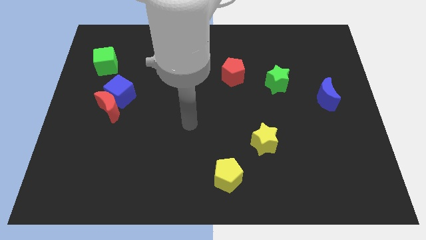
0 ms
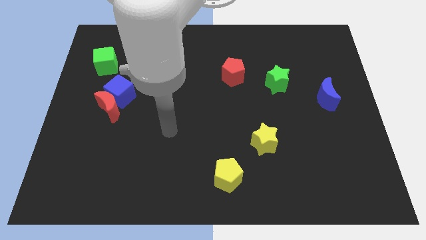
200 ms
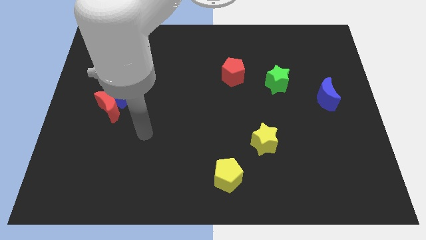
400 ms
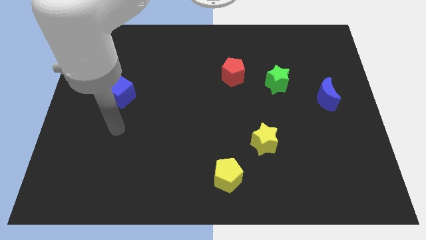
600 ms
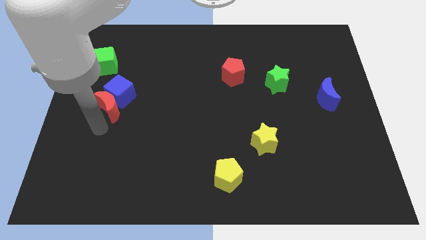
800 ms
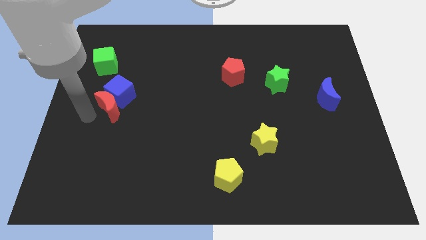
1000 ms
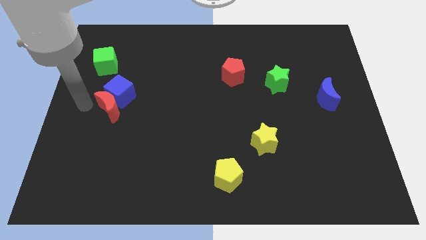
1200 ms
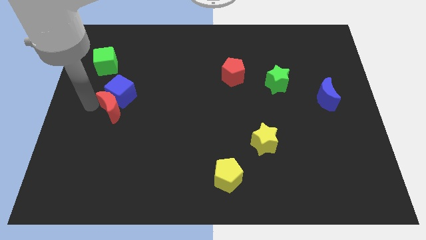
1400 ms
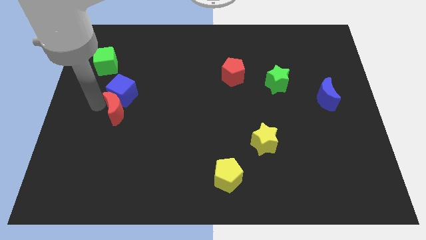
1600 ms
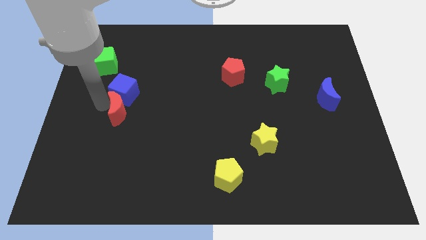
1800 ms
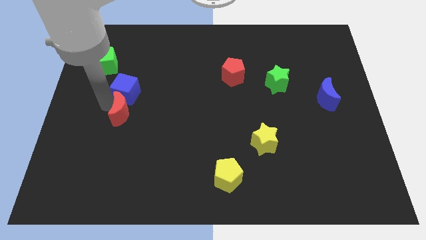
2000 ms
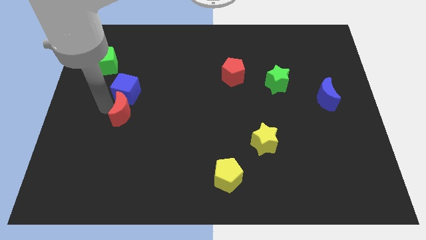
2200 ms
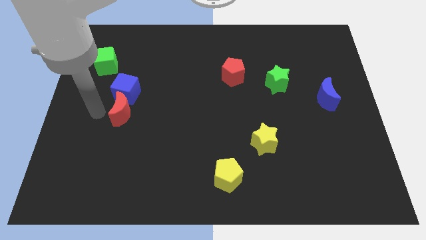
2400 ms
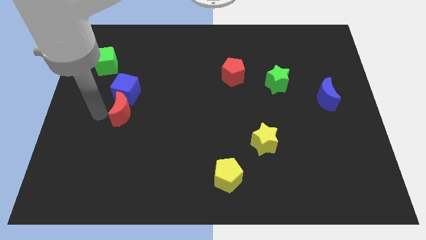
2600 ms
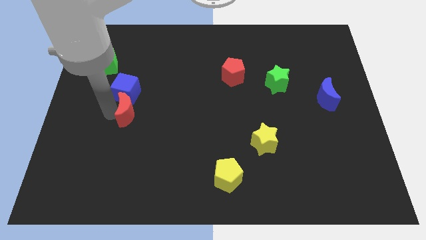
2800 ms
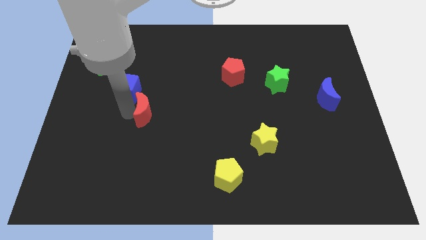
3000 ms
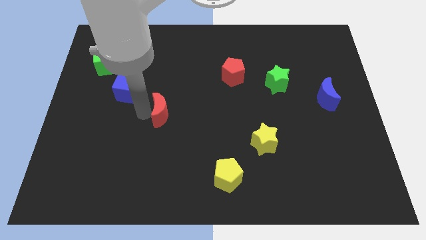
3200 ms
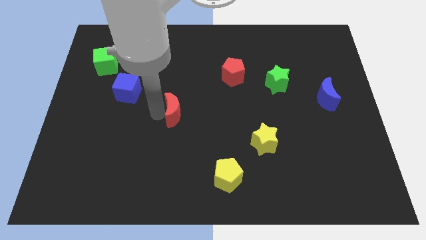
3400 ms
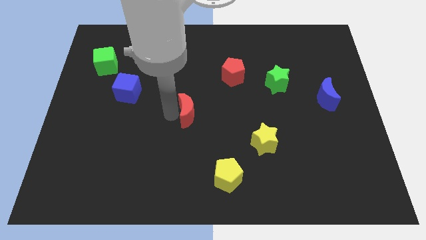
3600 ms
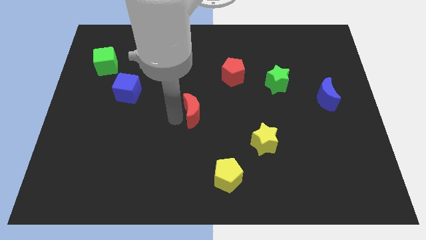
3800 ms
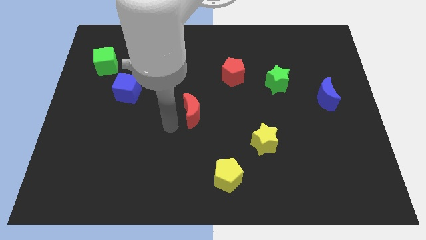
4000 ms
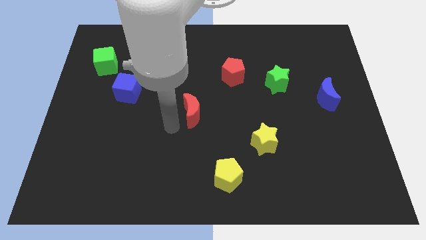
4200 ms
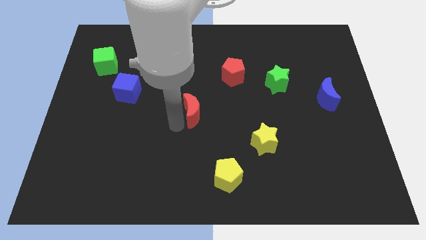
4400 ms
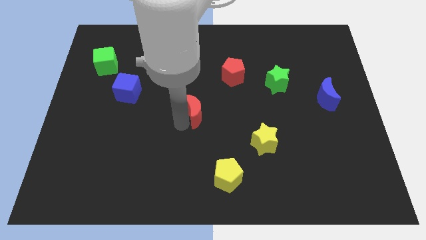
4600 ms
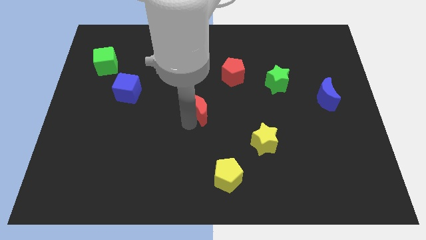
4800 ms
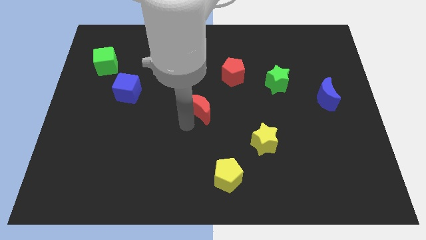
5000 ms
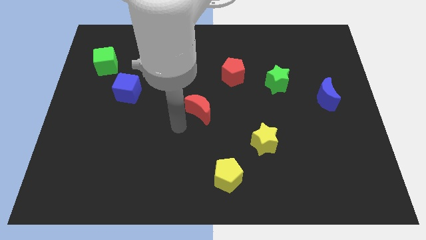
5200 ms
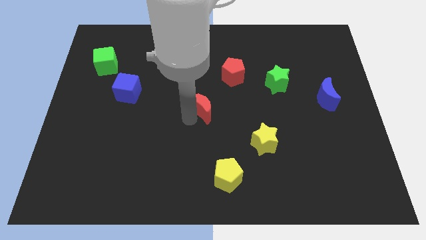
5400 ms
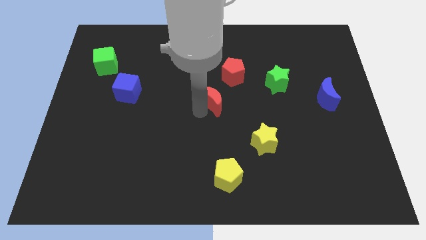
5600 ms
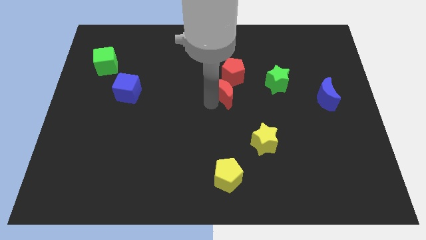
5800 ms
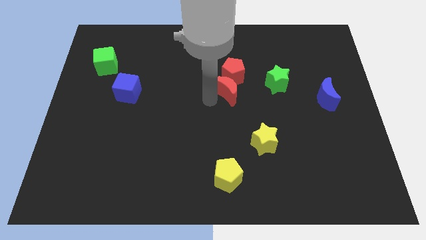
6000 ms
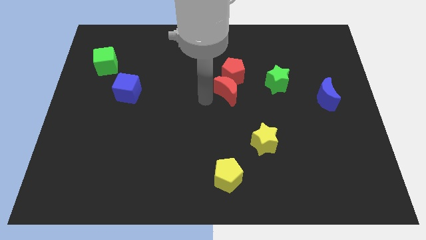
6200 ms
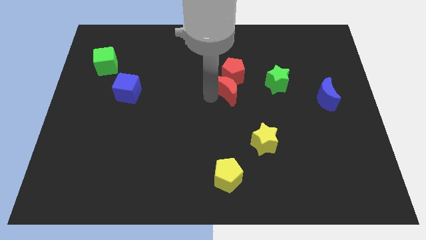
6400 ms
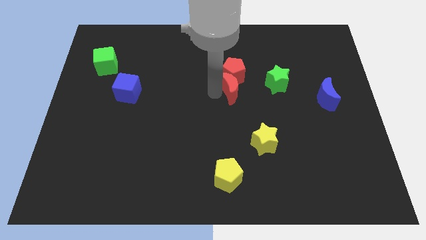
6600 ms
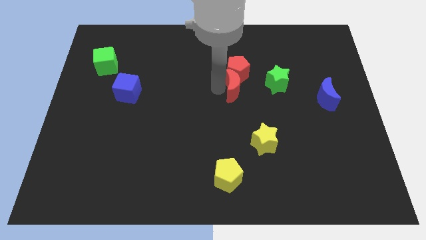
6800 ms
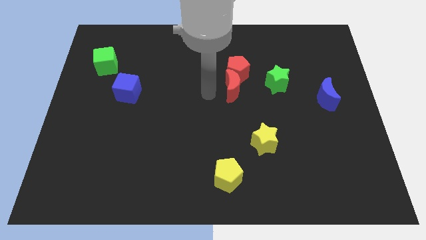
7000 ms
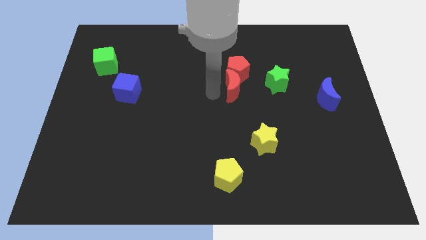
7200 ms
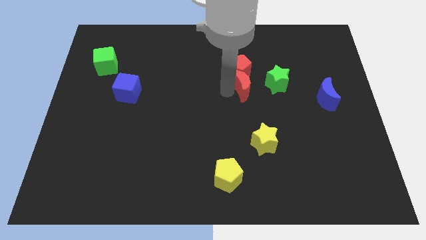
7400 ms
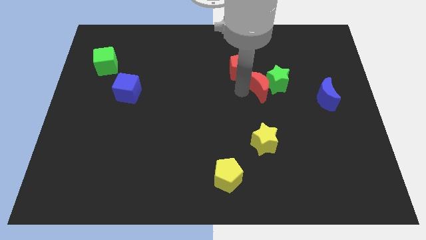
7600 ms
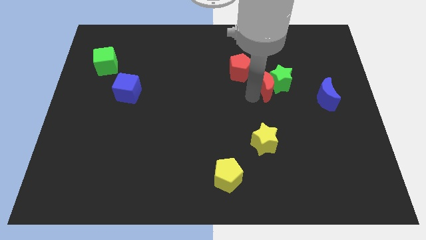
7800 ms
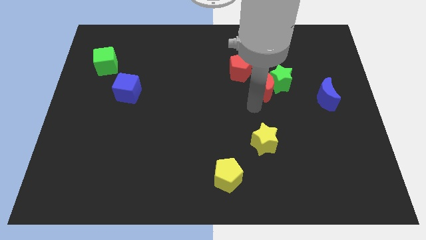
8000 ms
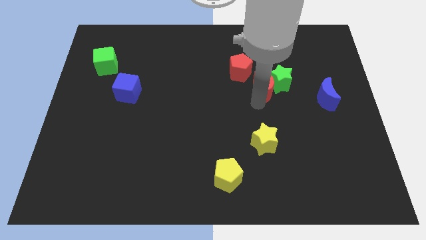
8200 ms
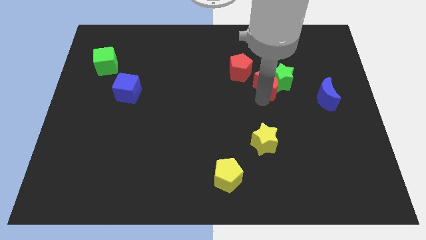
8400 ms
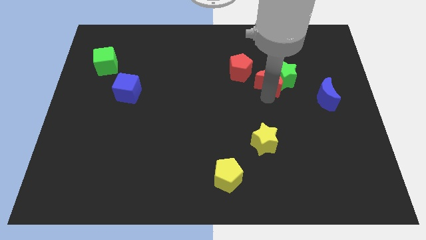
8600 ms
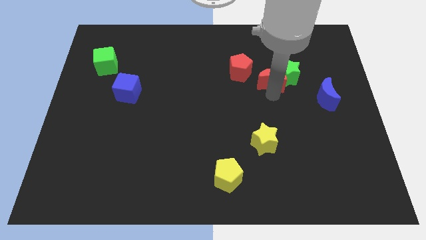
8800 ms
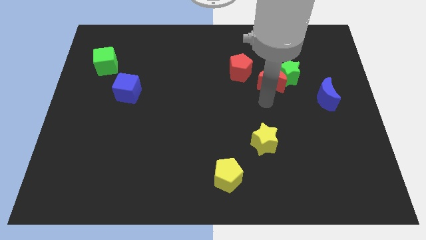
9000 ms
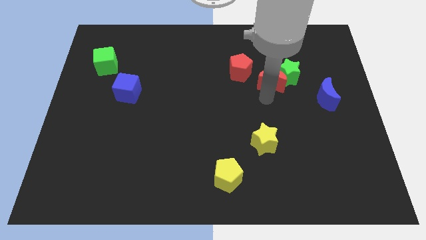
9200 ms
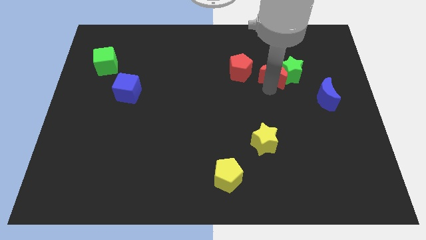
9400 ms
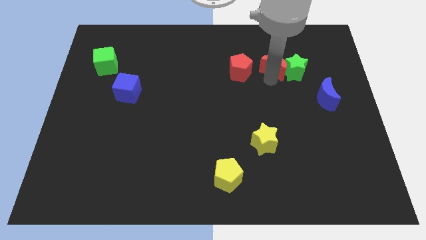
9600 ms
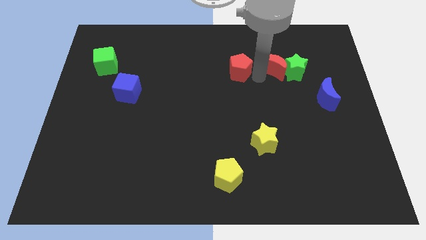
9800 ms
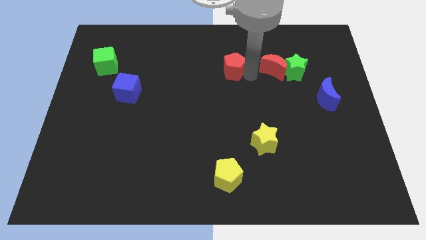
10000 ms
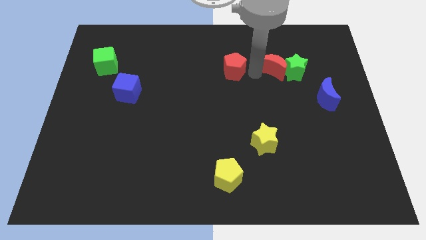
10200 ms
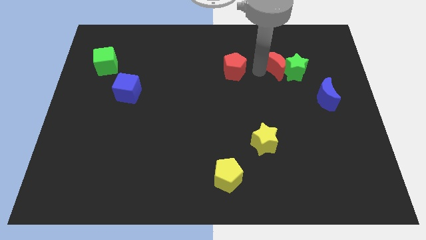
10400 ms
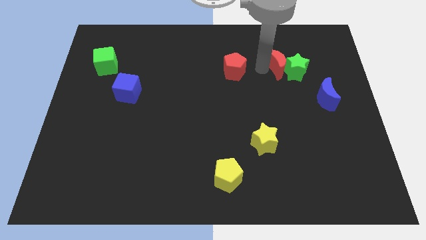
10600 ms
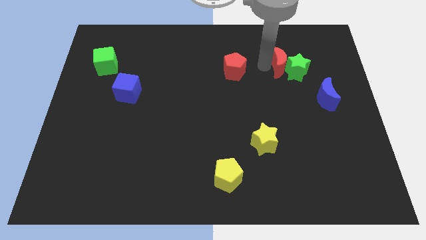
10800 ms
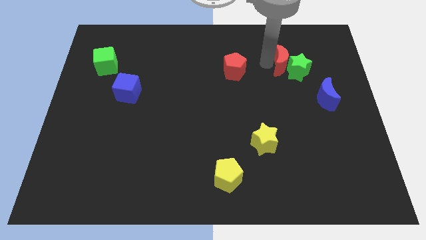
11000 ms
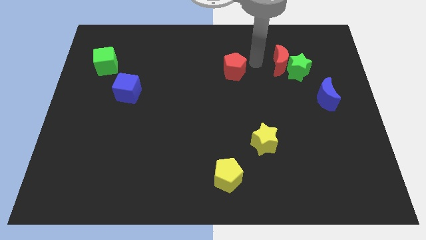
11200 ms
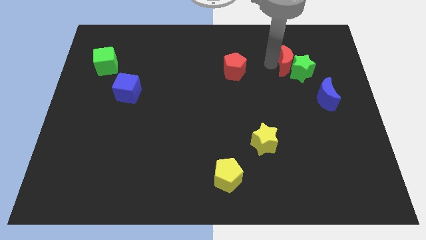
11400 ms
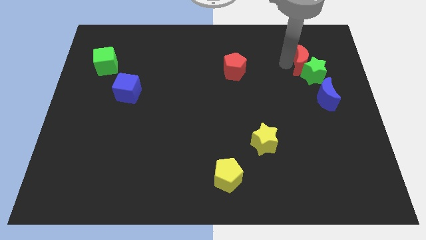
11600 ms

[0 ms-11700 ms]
put the red moon to the top side of the blue moon

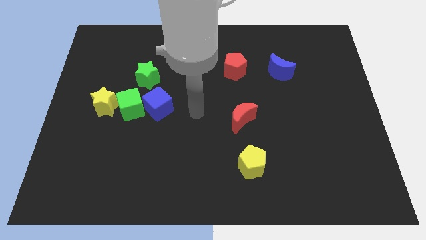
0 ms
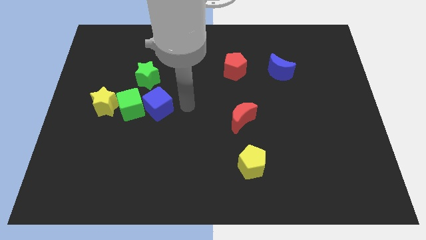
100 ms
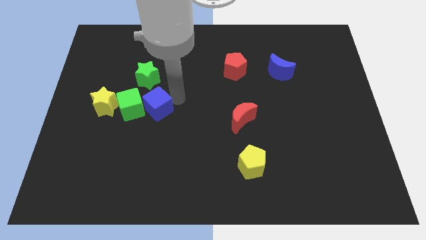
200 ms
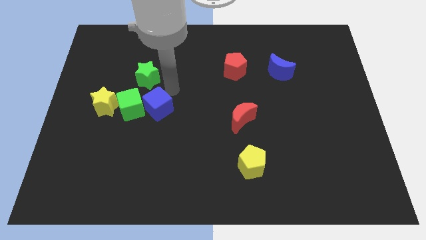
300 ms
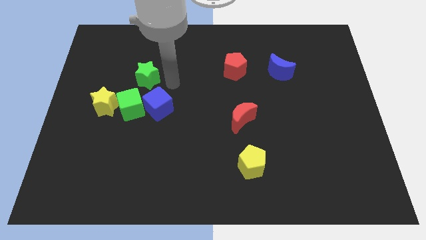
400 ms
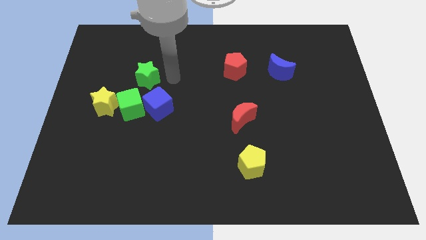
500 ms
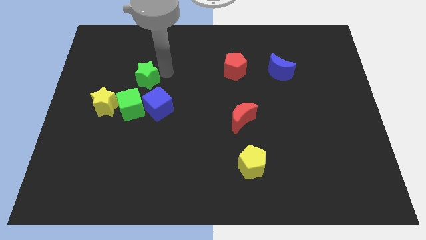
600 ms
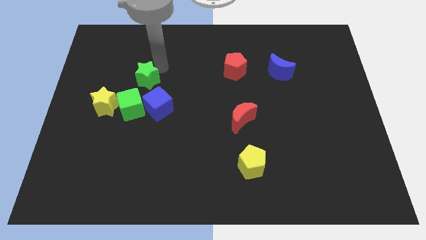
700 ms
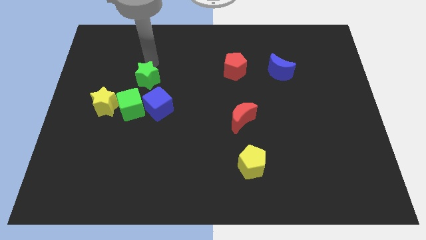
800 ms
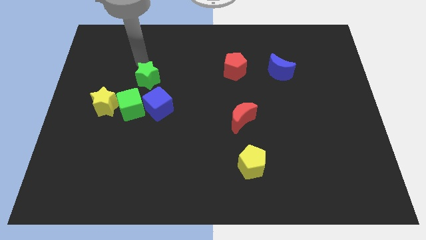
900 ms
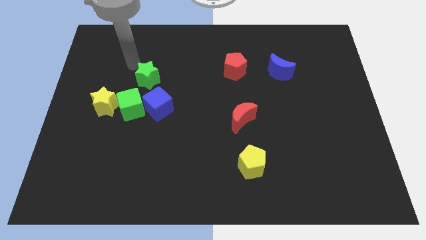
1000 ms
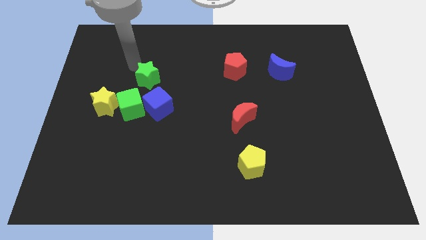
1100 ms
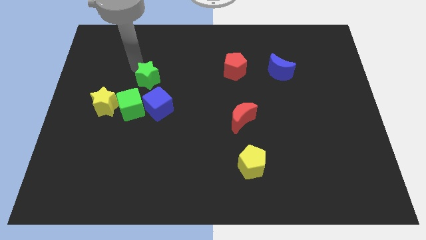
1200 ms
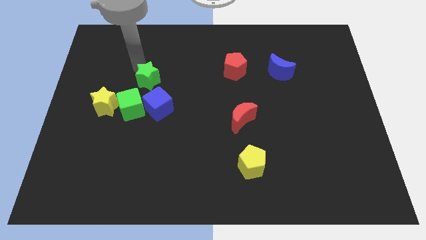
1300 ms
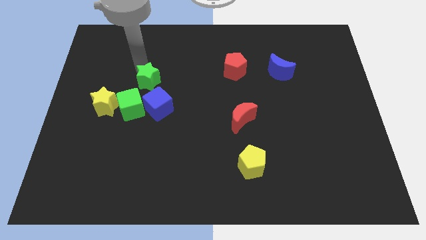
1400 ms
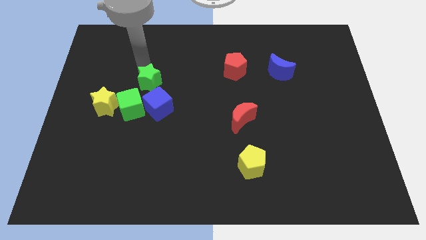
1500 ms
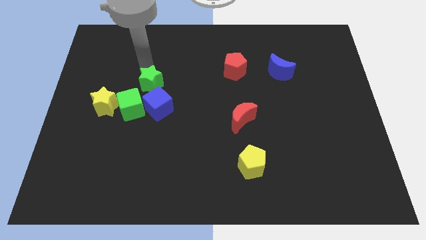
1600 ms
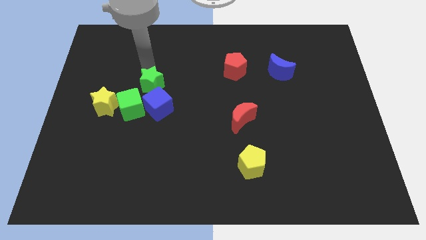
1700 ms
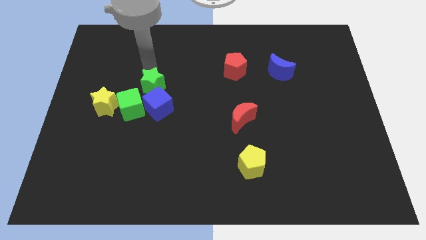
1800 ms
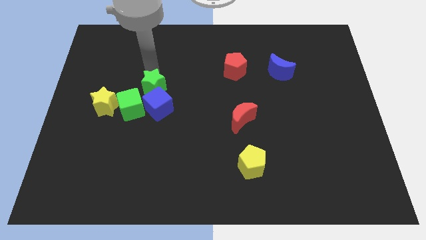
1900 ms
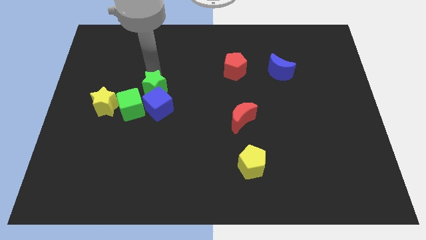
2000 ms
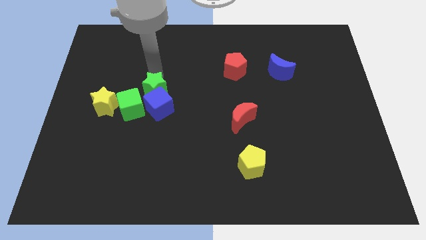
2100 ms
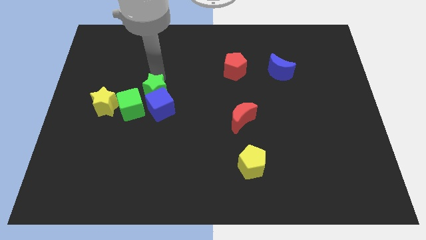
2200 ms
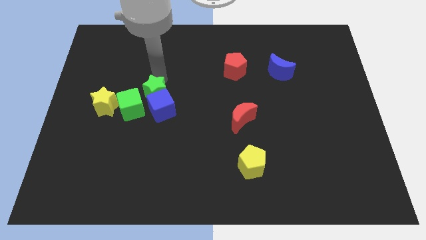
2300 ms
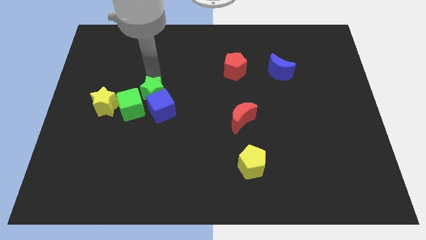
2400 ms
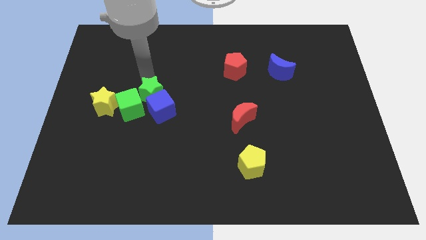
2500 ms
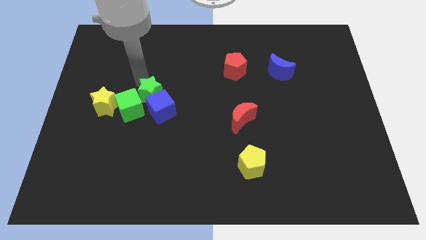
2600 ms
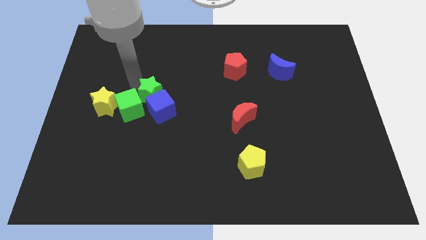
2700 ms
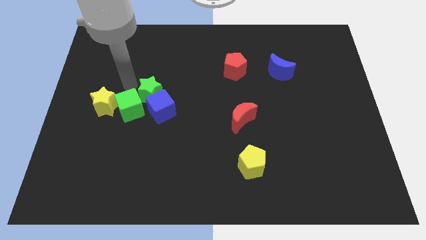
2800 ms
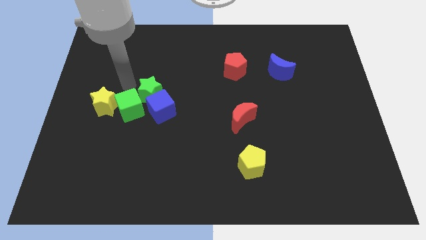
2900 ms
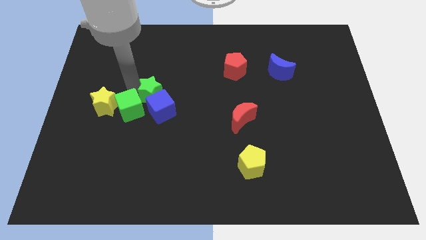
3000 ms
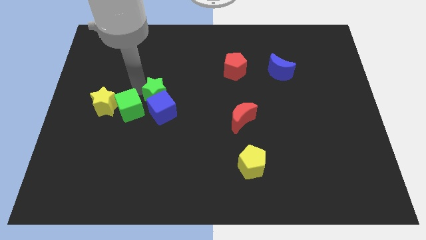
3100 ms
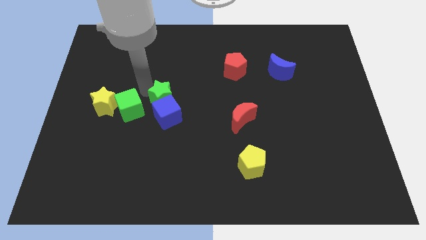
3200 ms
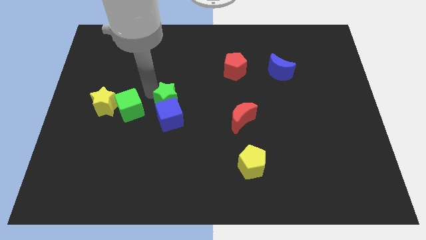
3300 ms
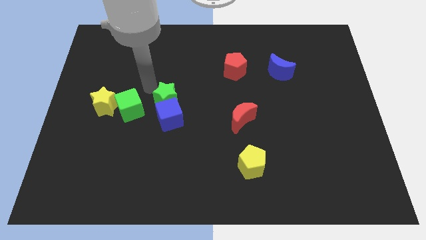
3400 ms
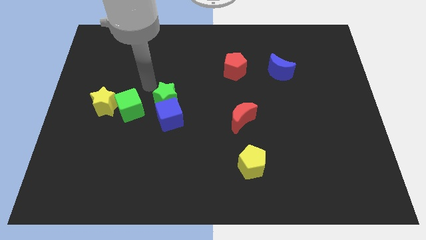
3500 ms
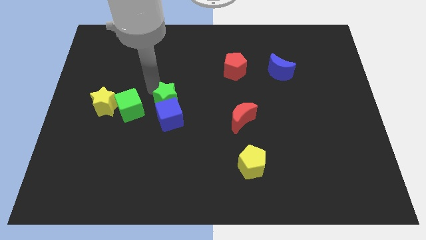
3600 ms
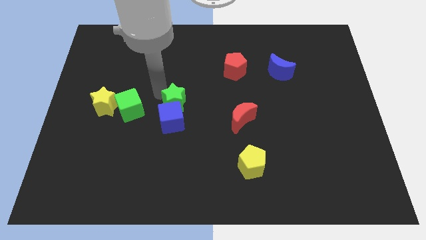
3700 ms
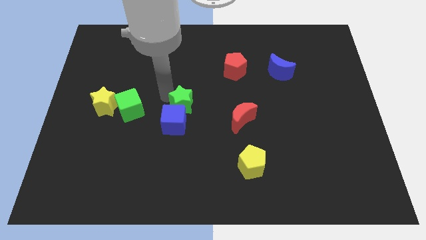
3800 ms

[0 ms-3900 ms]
slide the green star just left of the red moon
